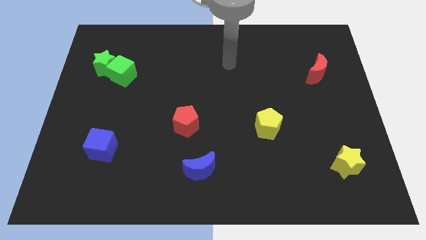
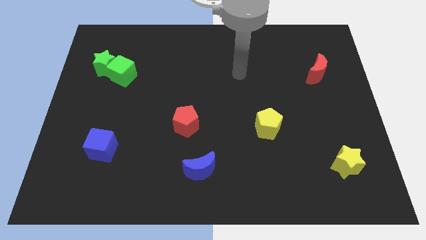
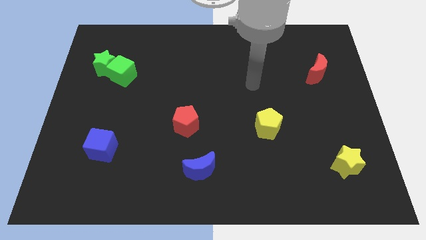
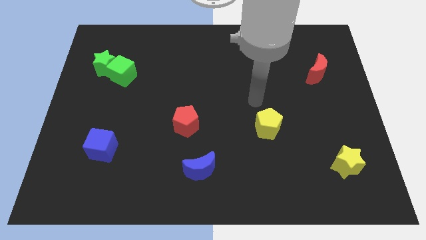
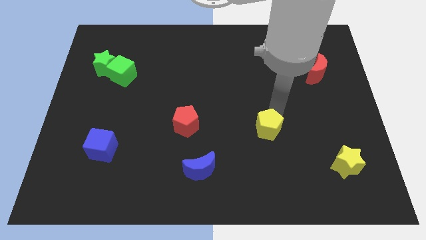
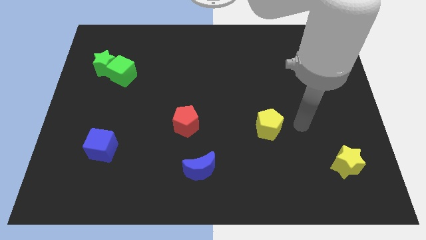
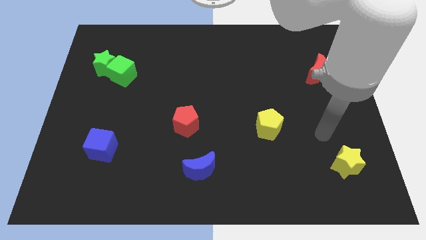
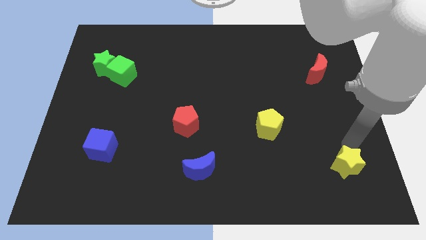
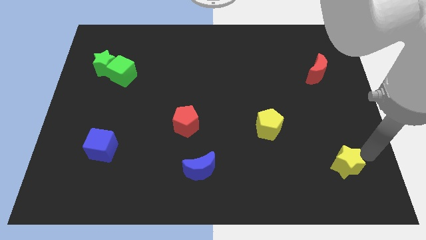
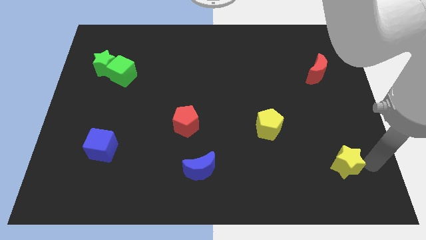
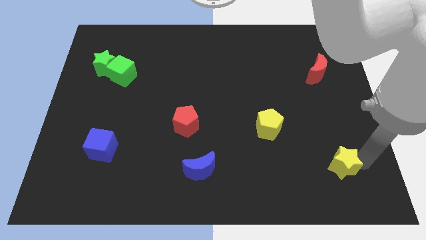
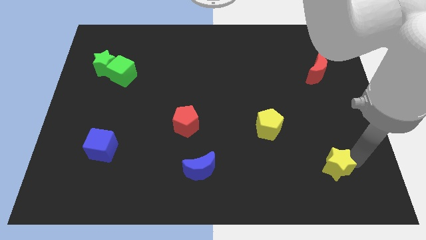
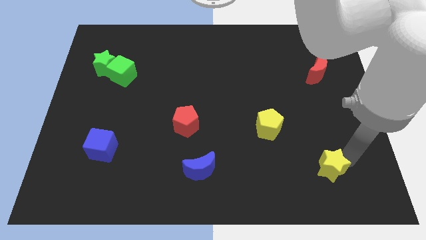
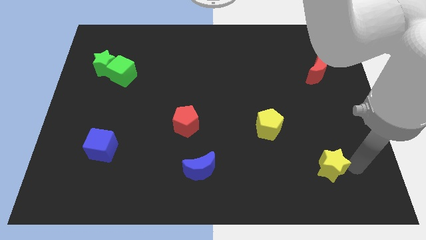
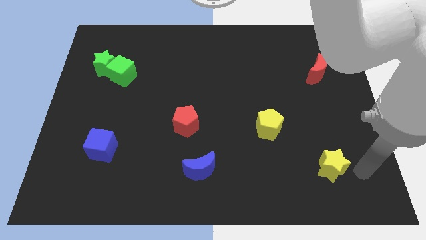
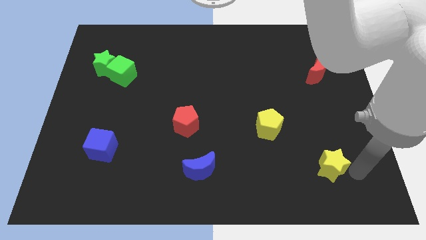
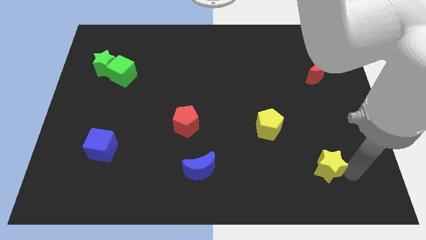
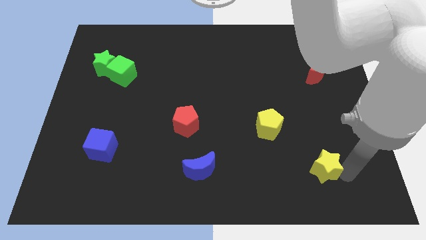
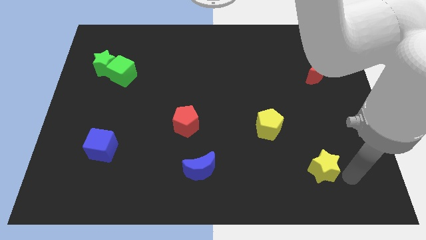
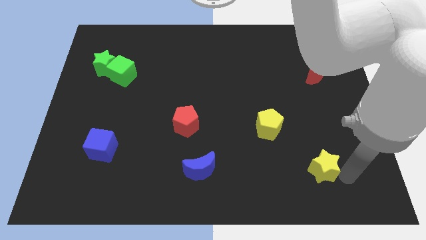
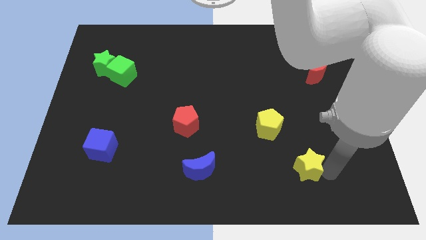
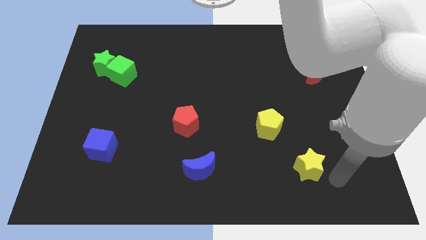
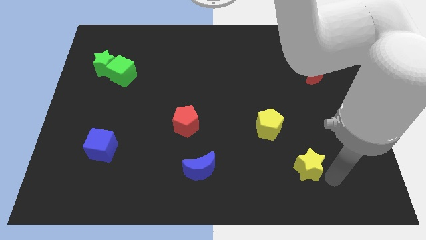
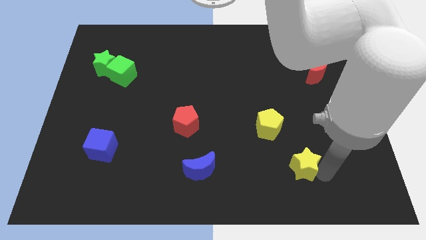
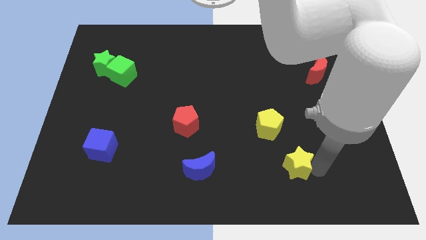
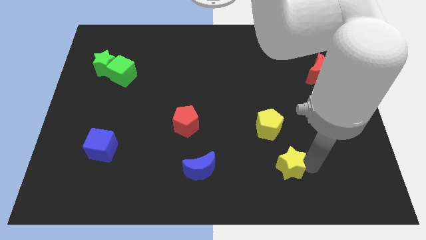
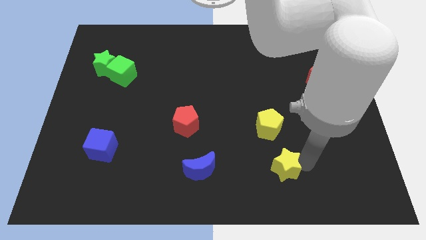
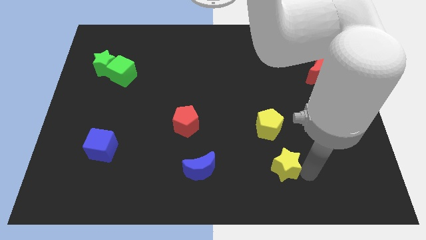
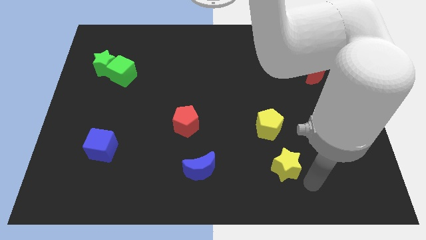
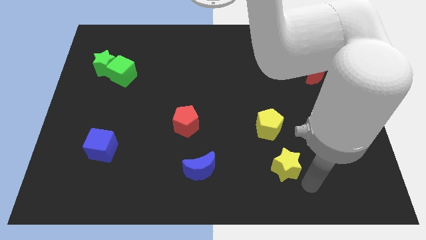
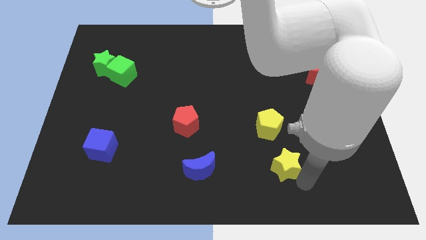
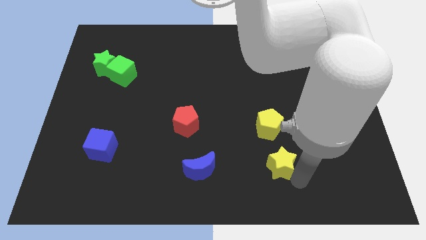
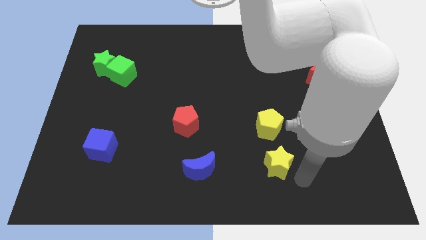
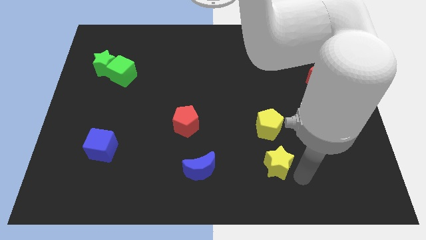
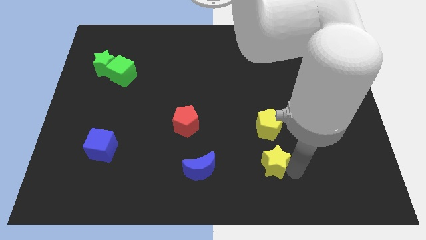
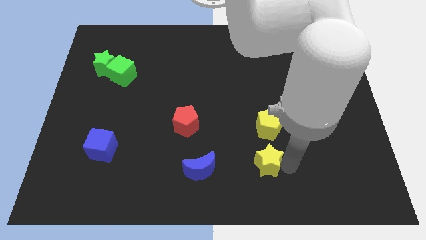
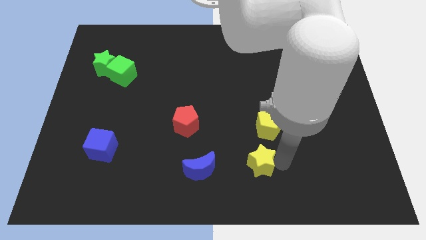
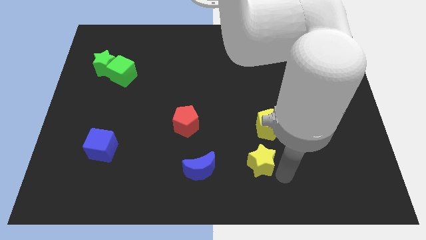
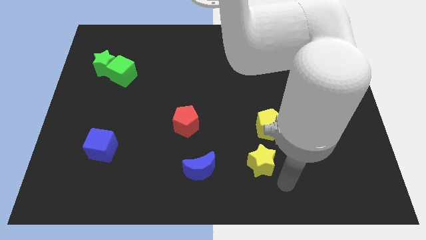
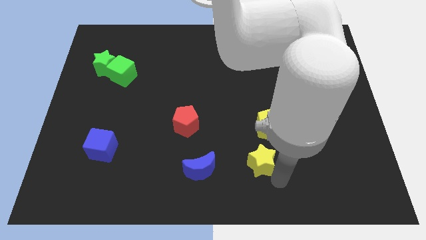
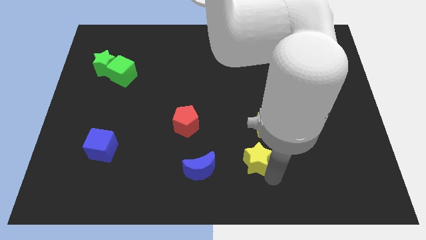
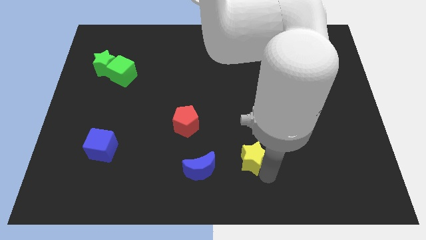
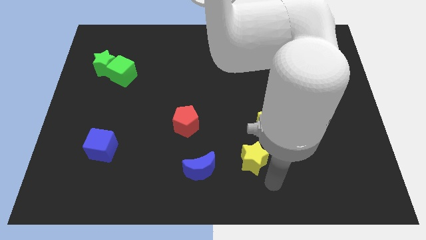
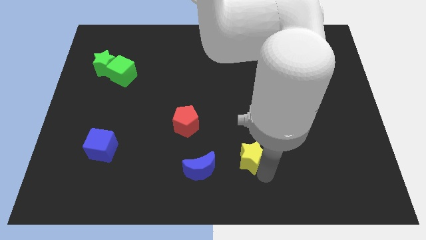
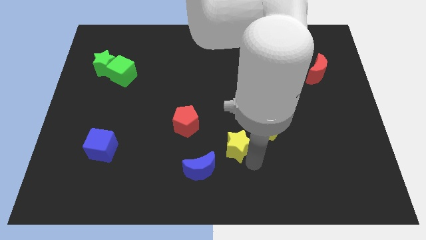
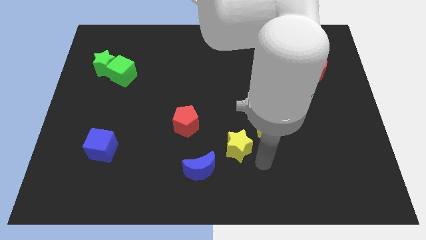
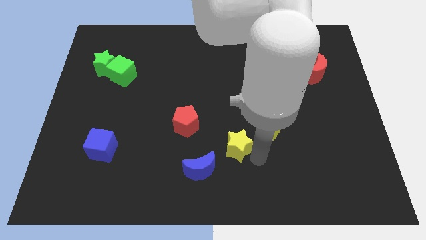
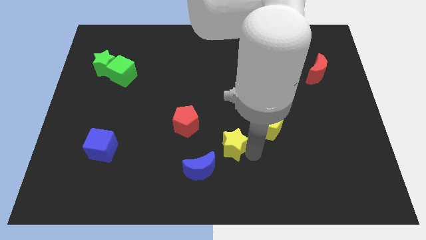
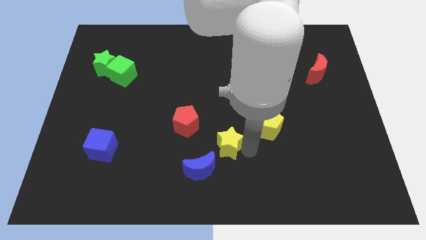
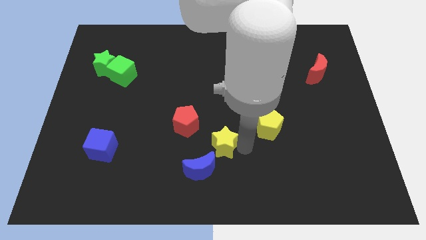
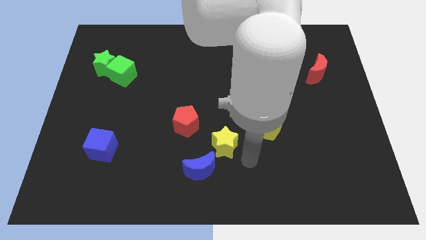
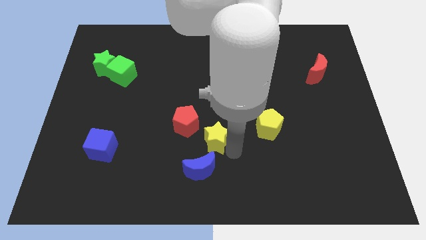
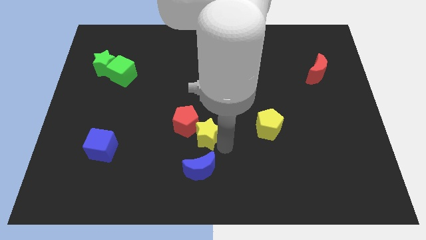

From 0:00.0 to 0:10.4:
move the yellow star to the red pentagon

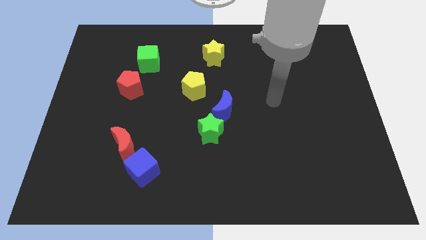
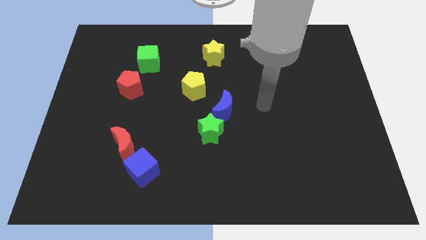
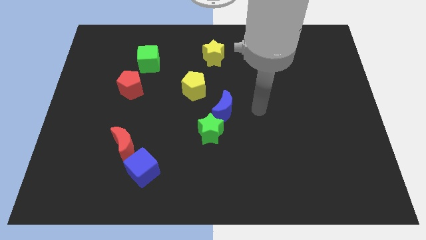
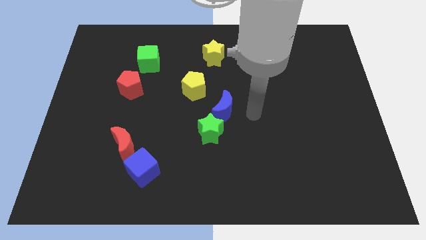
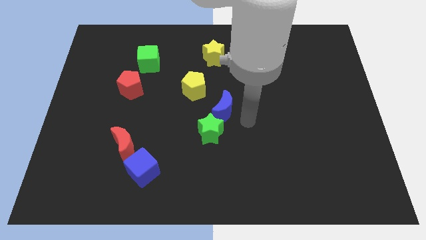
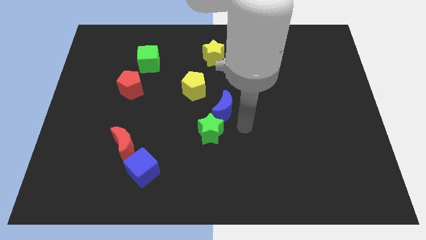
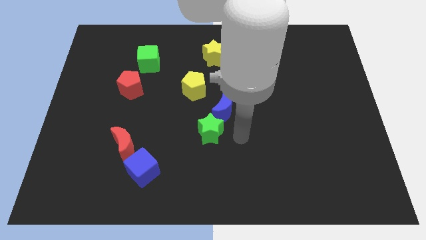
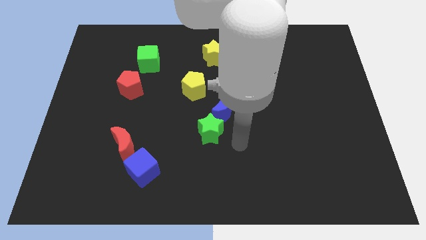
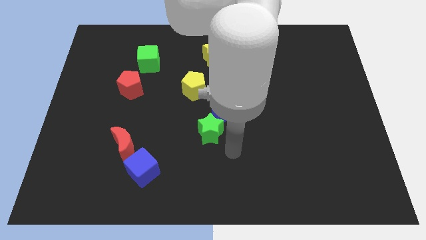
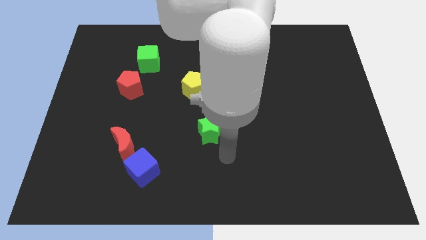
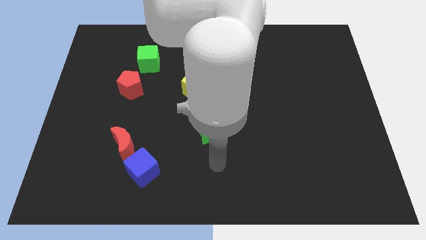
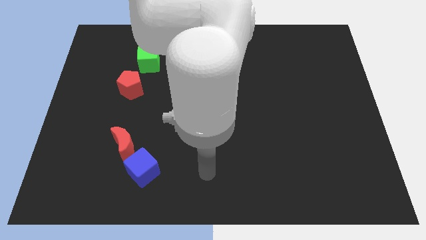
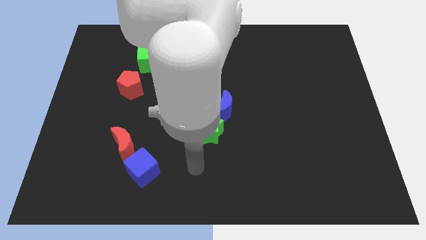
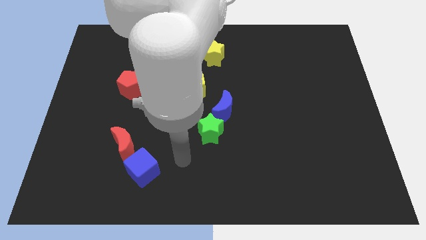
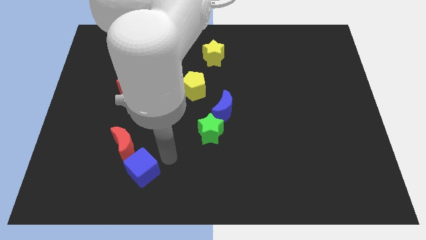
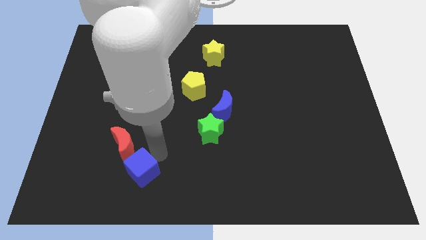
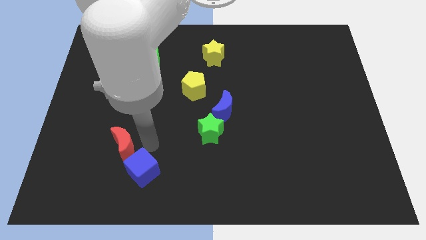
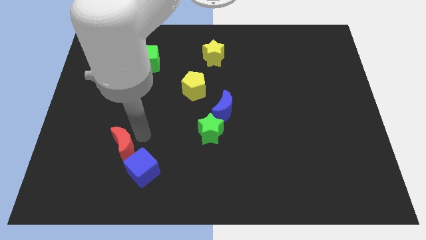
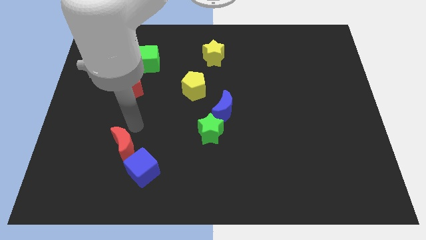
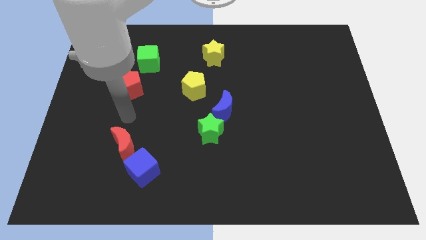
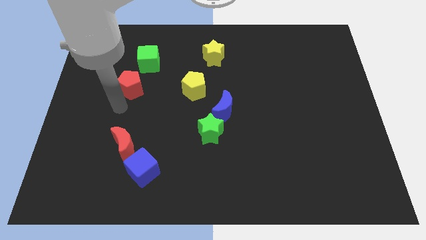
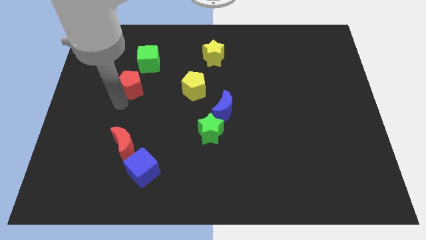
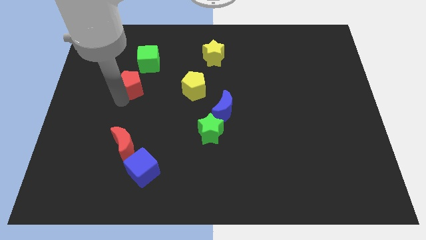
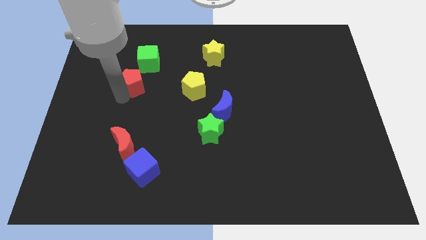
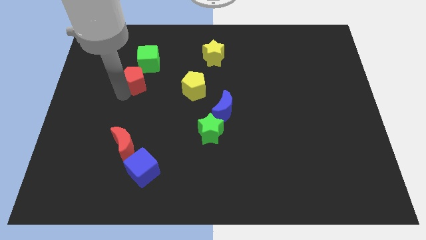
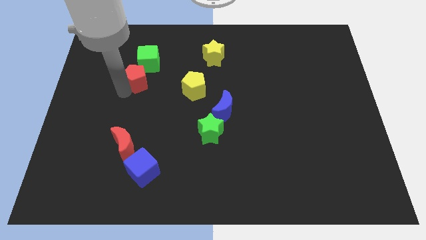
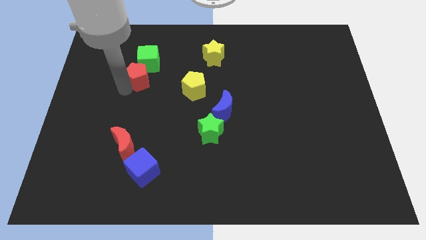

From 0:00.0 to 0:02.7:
push the red pentagon next to the green cube
